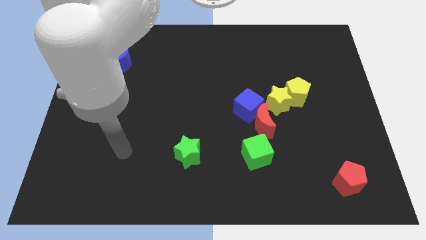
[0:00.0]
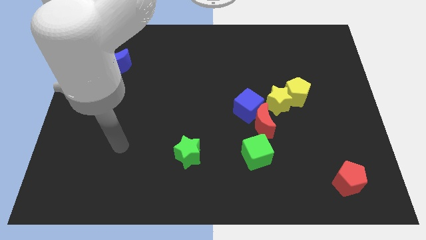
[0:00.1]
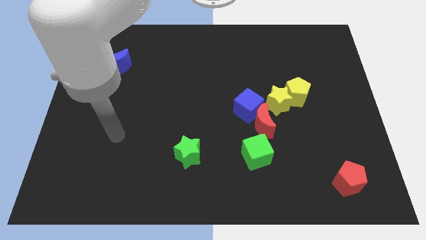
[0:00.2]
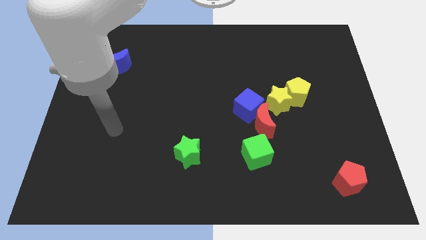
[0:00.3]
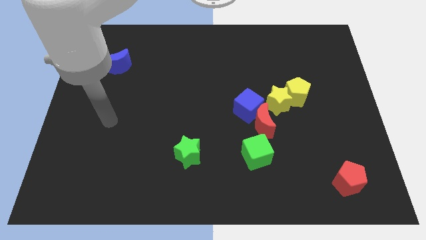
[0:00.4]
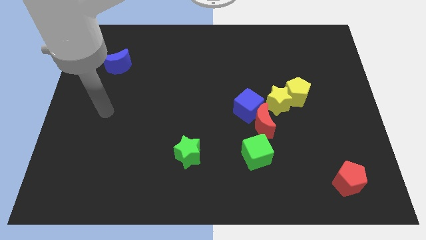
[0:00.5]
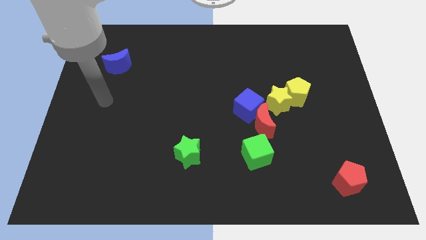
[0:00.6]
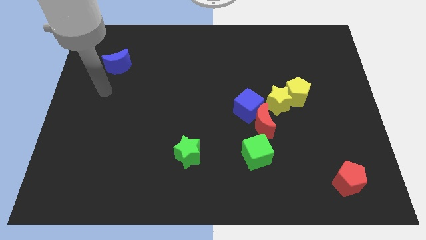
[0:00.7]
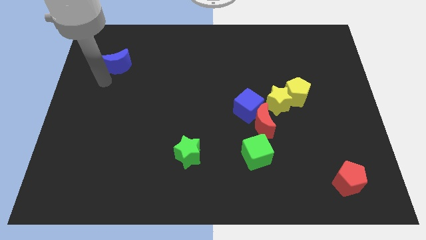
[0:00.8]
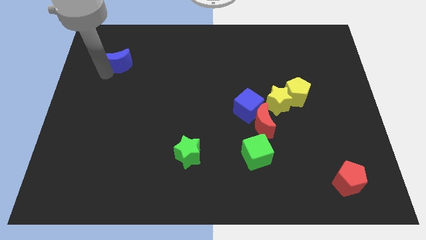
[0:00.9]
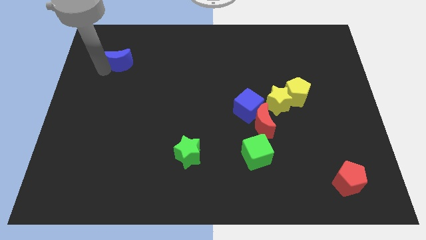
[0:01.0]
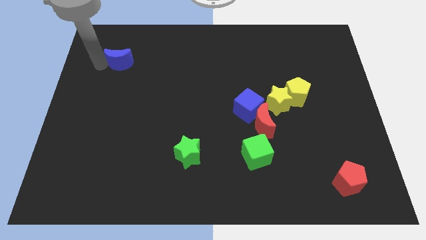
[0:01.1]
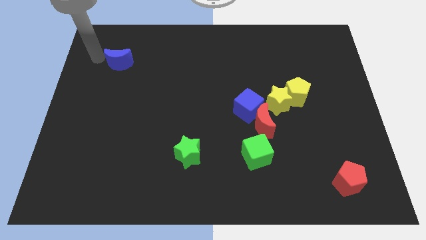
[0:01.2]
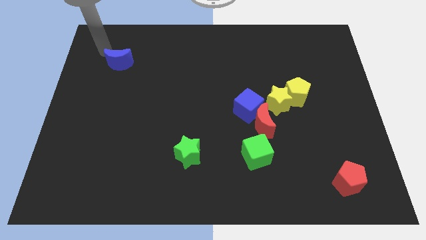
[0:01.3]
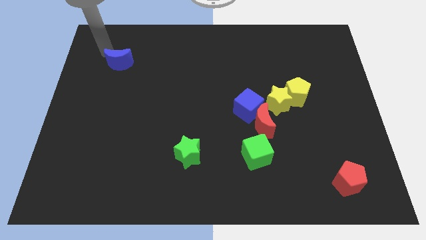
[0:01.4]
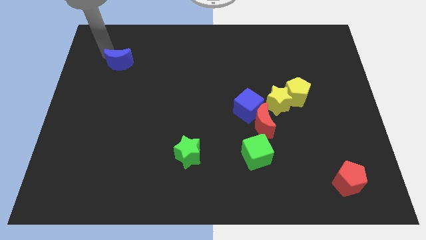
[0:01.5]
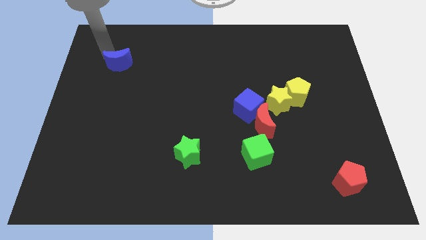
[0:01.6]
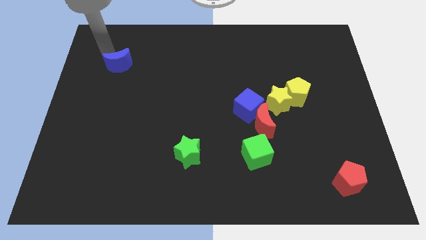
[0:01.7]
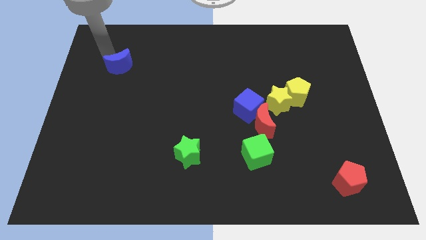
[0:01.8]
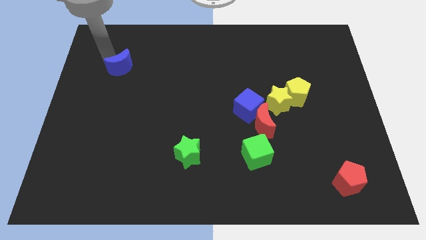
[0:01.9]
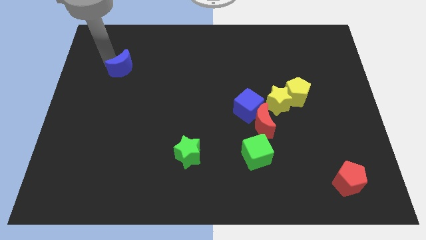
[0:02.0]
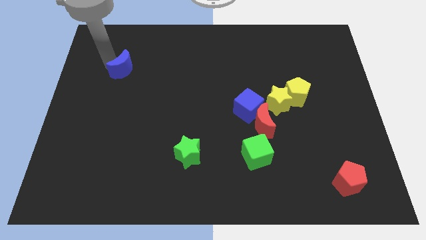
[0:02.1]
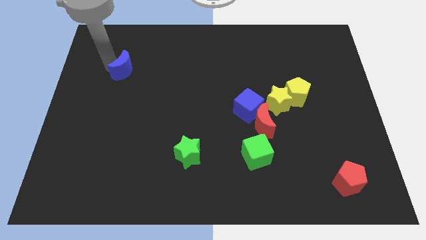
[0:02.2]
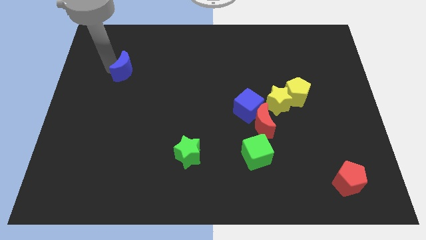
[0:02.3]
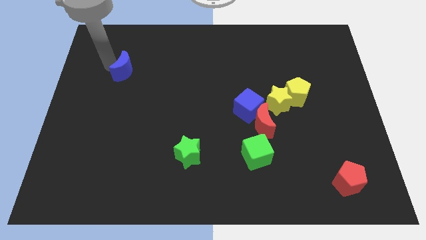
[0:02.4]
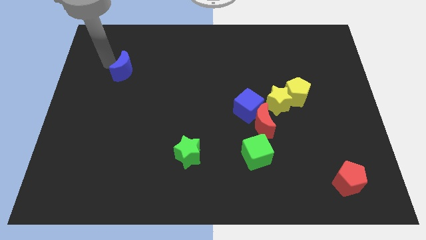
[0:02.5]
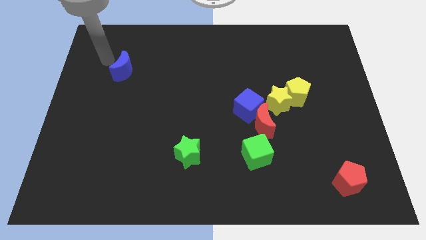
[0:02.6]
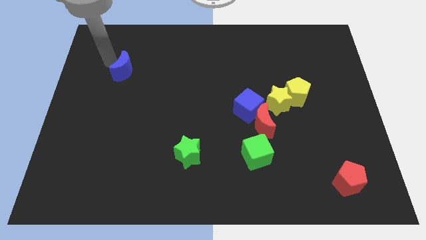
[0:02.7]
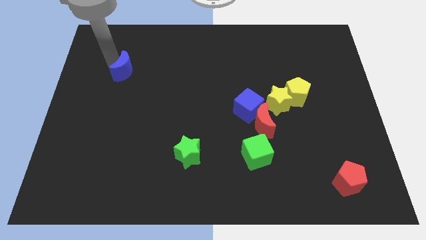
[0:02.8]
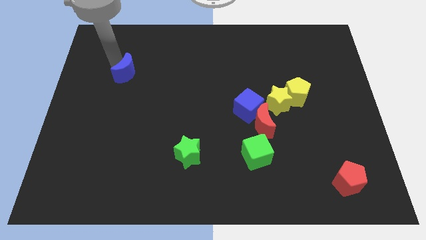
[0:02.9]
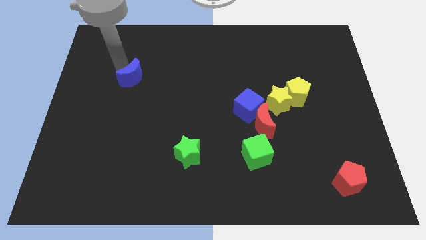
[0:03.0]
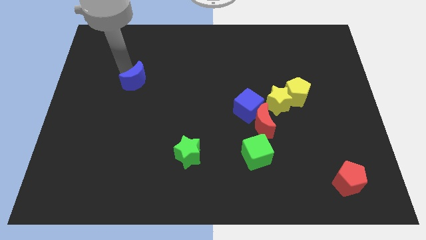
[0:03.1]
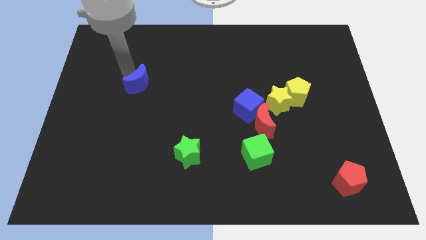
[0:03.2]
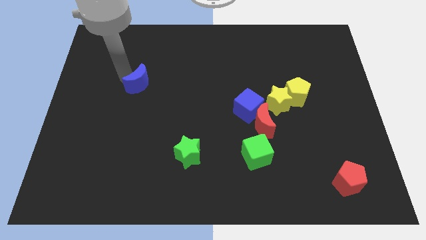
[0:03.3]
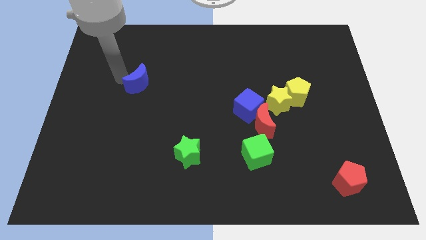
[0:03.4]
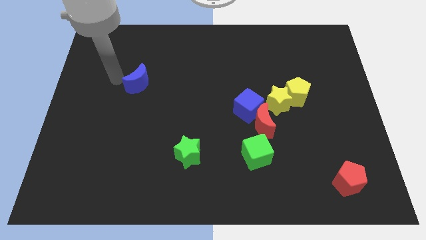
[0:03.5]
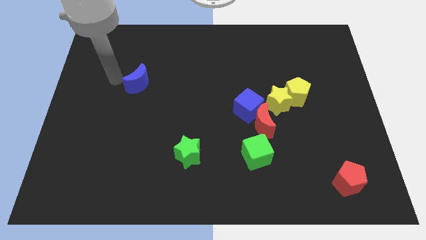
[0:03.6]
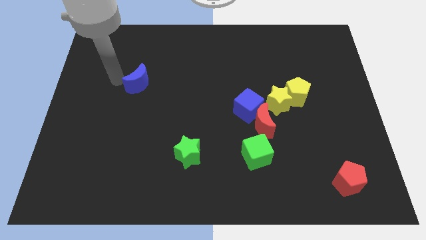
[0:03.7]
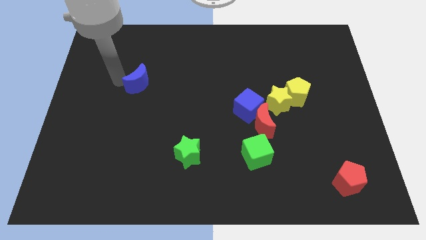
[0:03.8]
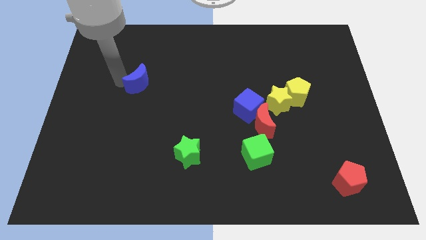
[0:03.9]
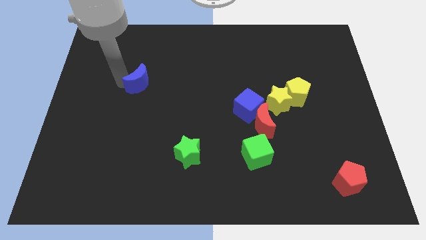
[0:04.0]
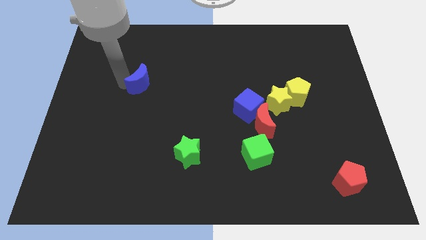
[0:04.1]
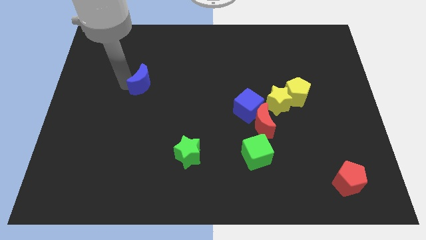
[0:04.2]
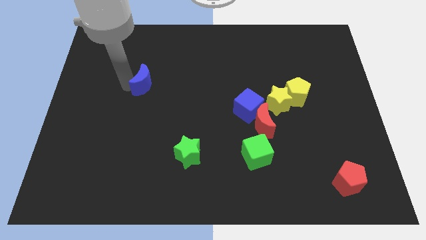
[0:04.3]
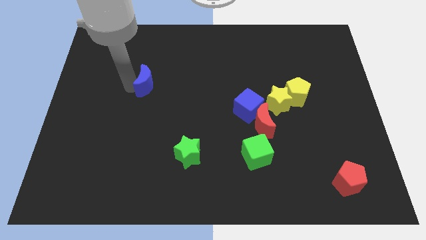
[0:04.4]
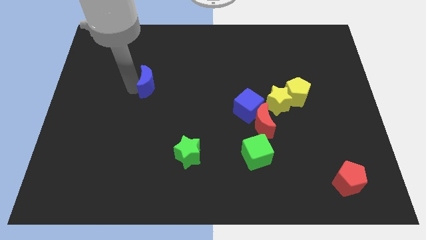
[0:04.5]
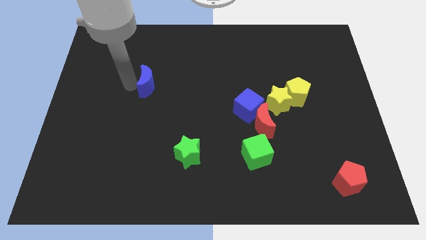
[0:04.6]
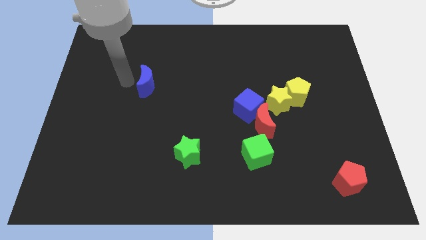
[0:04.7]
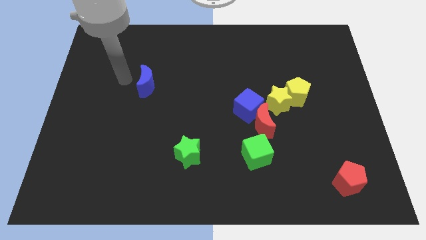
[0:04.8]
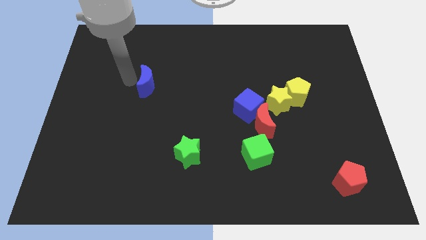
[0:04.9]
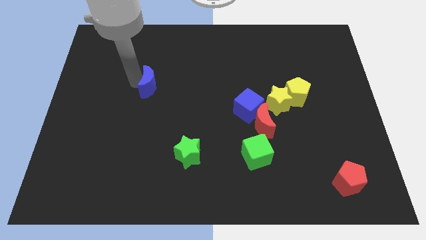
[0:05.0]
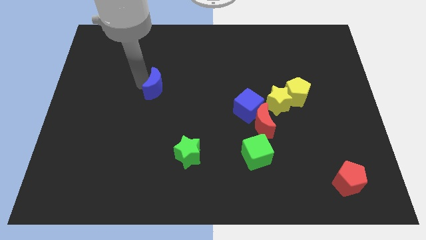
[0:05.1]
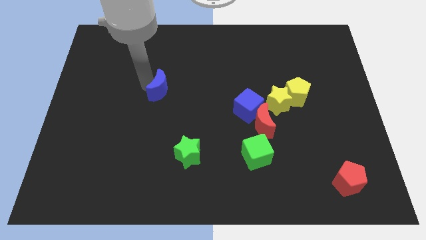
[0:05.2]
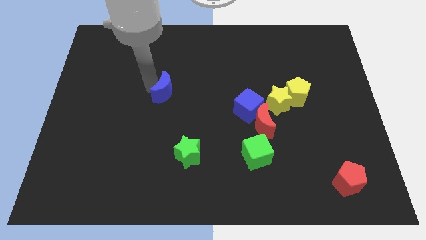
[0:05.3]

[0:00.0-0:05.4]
slide the blue moon to the center of the board

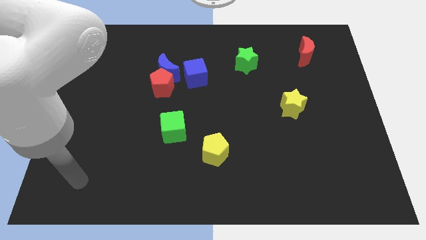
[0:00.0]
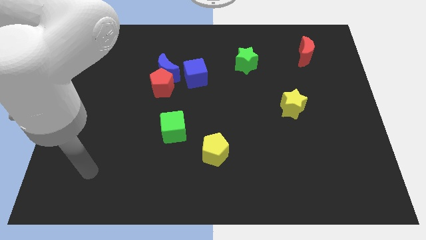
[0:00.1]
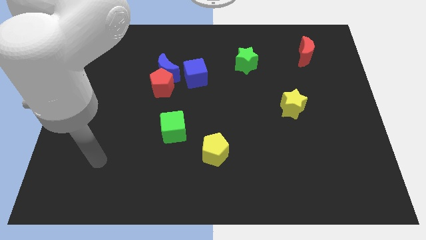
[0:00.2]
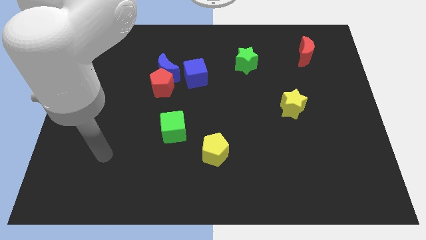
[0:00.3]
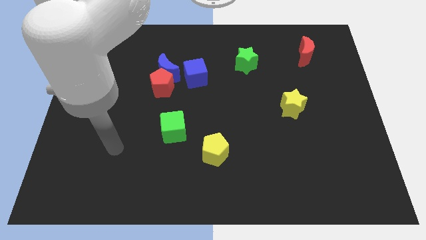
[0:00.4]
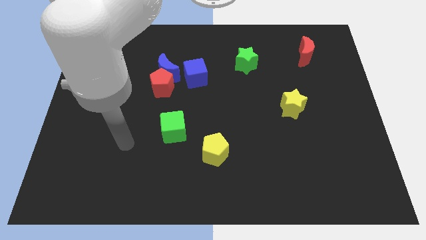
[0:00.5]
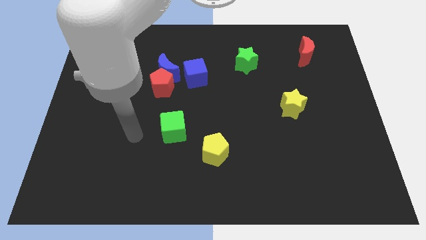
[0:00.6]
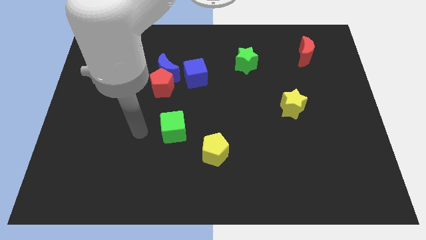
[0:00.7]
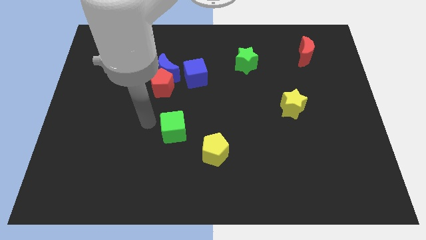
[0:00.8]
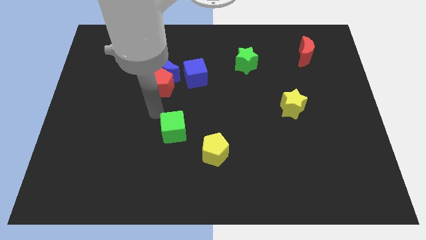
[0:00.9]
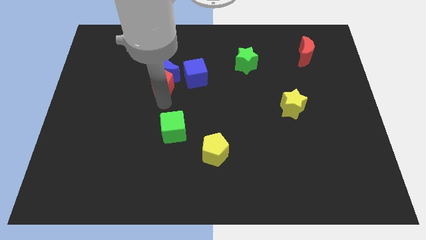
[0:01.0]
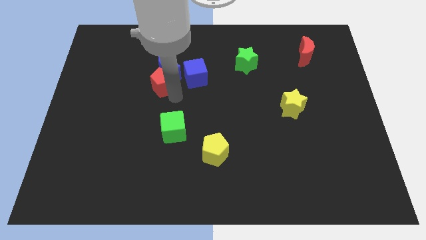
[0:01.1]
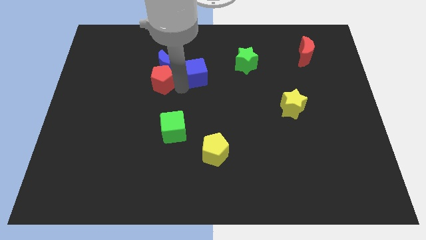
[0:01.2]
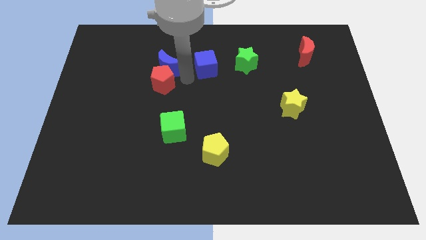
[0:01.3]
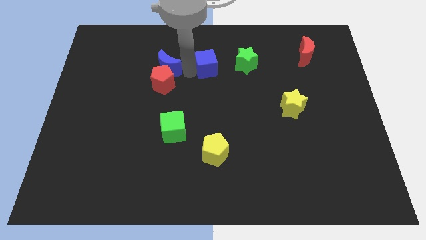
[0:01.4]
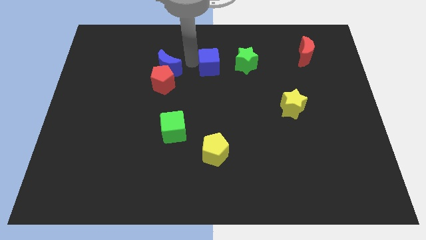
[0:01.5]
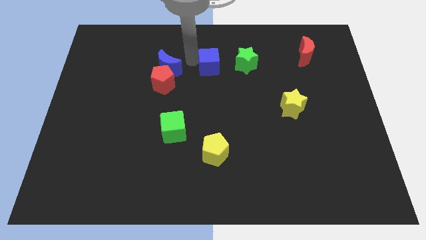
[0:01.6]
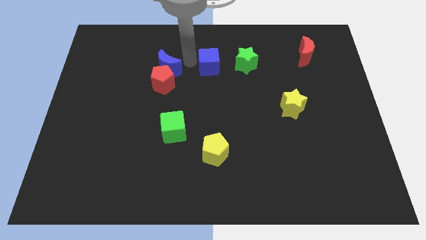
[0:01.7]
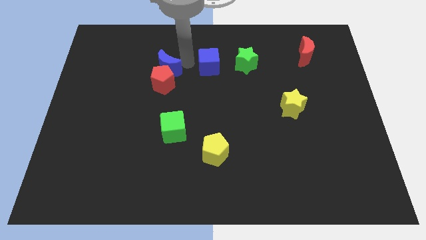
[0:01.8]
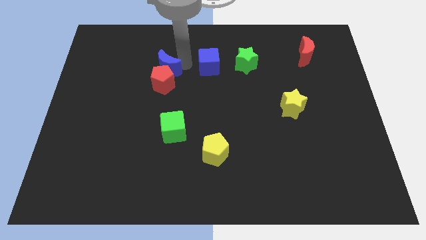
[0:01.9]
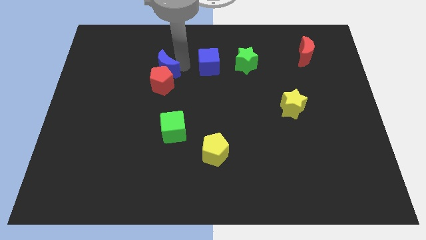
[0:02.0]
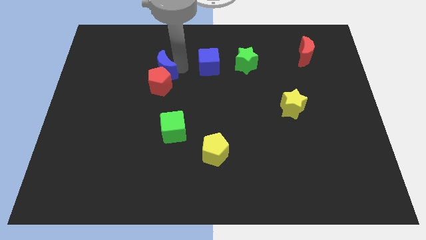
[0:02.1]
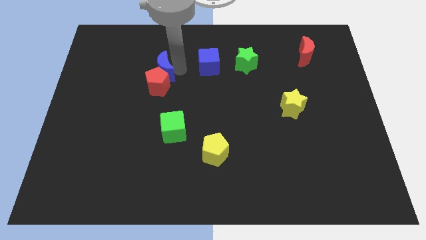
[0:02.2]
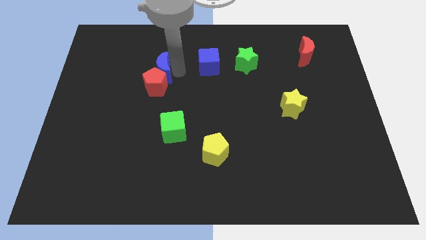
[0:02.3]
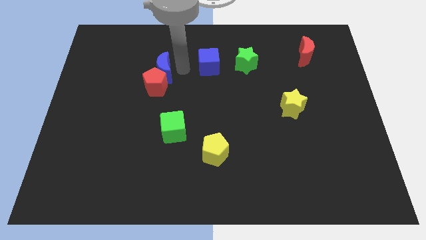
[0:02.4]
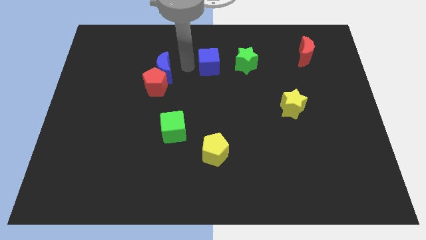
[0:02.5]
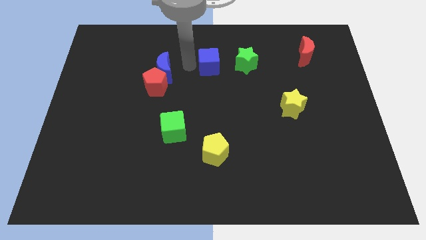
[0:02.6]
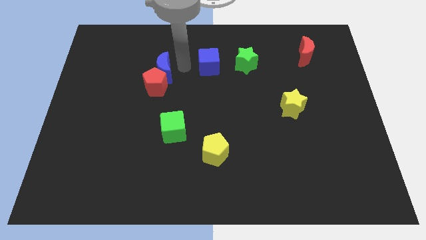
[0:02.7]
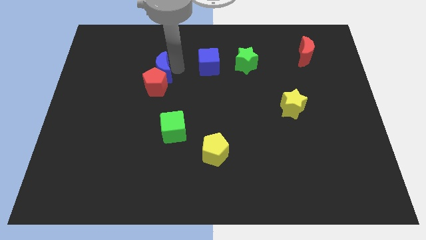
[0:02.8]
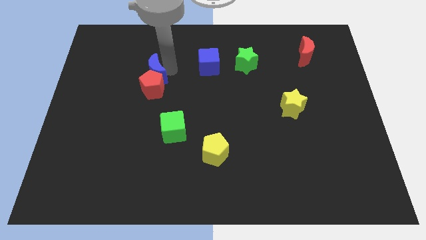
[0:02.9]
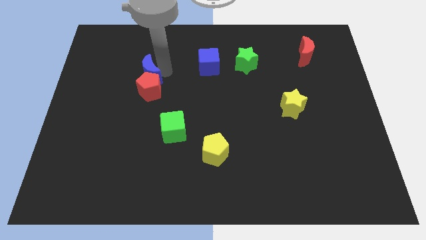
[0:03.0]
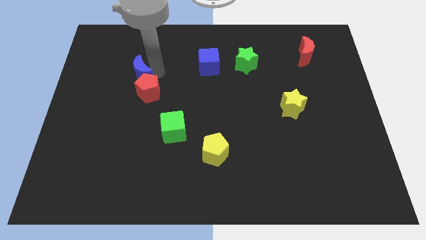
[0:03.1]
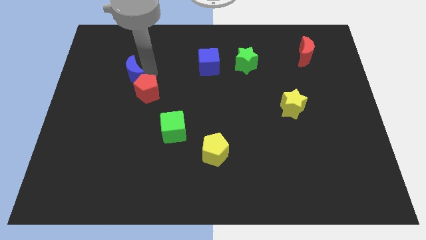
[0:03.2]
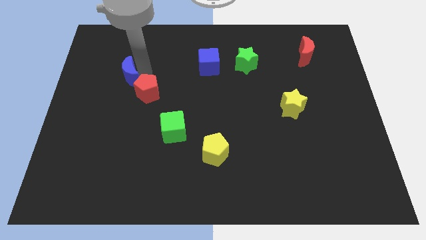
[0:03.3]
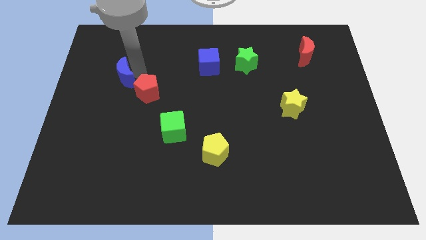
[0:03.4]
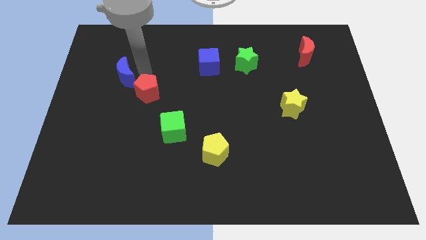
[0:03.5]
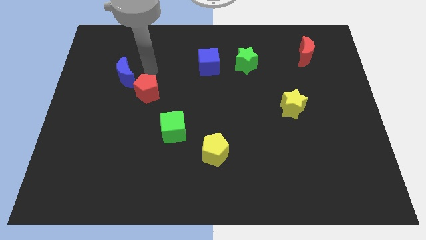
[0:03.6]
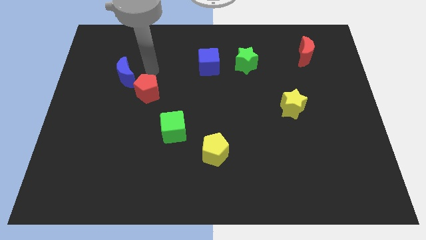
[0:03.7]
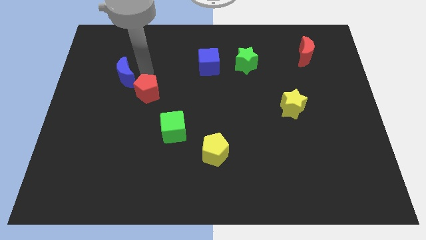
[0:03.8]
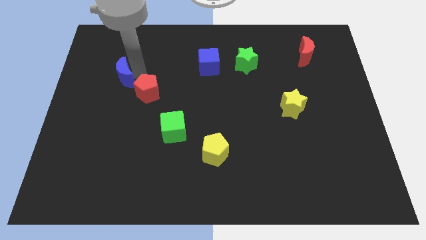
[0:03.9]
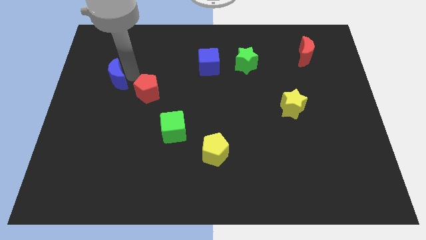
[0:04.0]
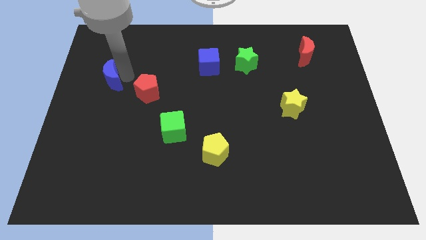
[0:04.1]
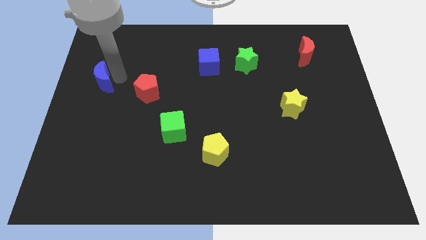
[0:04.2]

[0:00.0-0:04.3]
push the blue moon to the left side of the board
